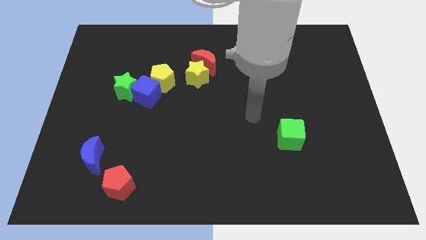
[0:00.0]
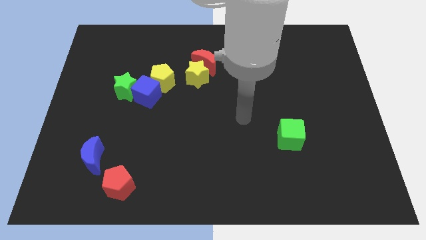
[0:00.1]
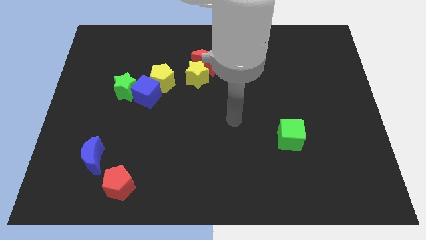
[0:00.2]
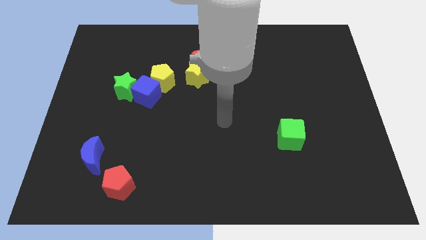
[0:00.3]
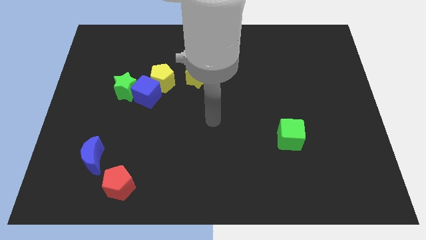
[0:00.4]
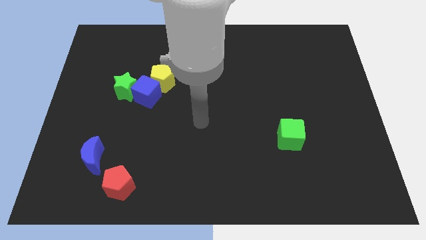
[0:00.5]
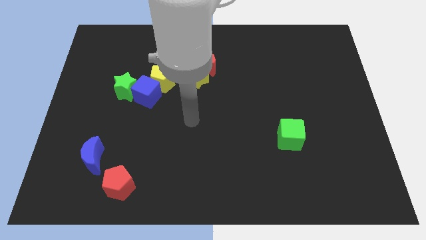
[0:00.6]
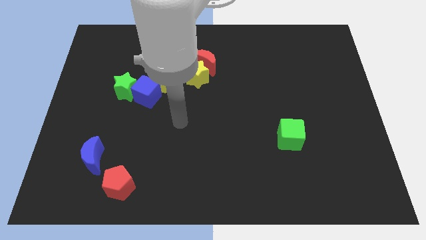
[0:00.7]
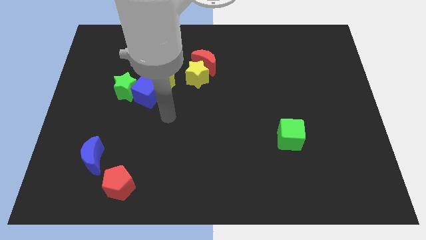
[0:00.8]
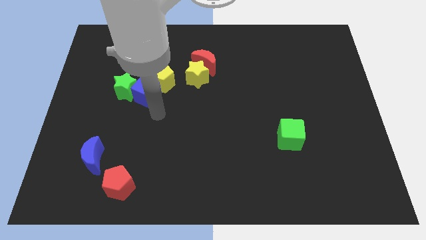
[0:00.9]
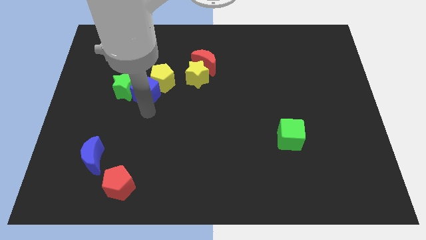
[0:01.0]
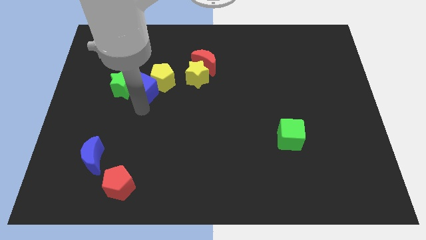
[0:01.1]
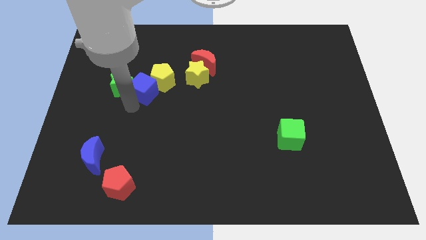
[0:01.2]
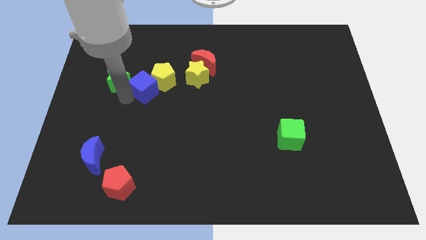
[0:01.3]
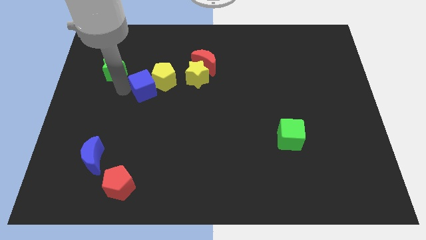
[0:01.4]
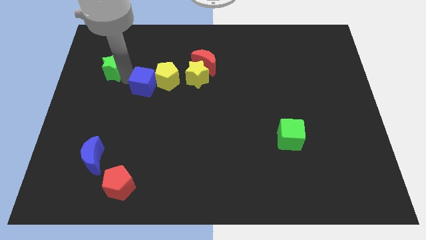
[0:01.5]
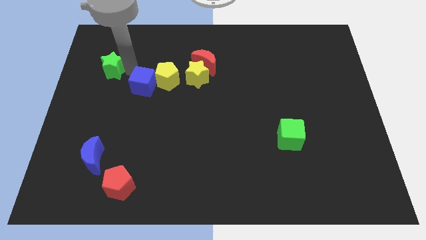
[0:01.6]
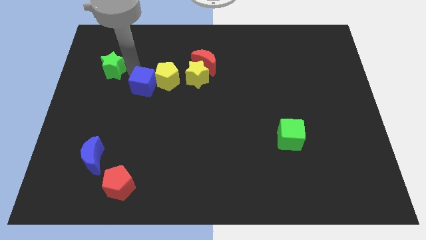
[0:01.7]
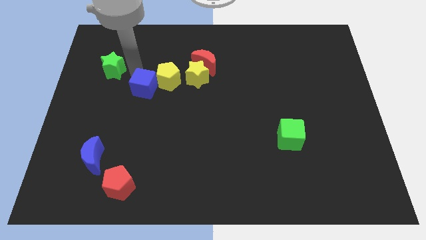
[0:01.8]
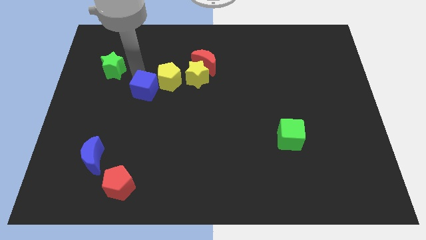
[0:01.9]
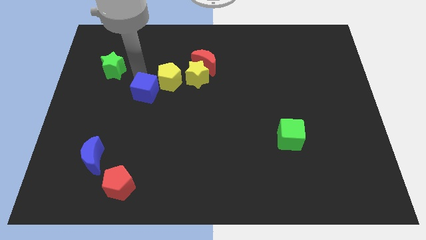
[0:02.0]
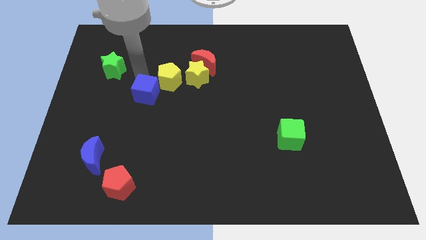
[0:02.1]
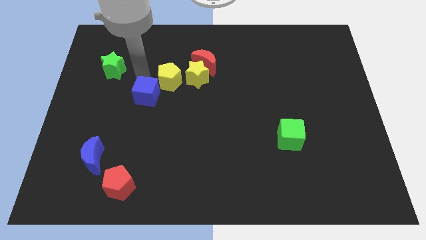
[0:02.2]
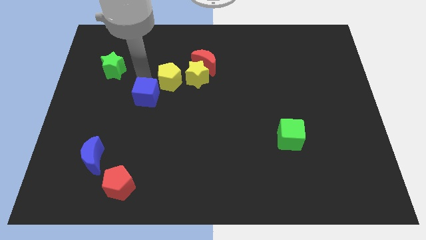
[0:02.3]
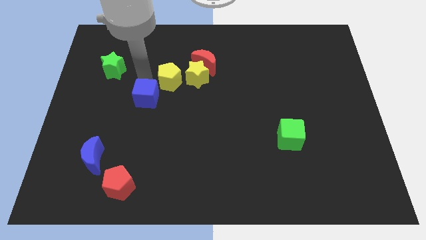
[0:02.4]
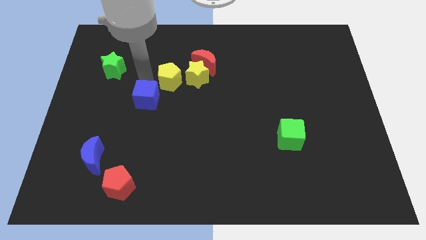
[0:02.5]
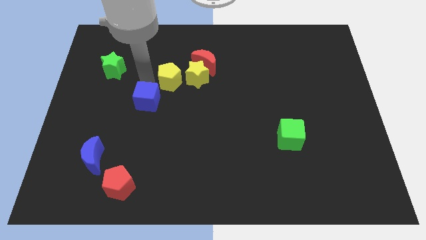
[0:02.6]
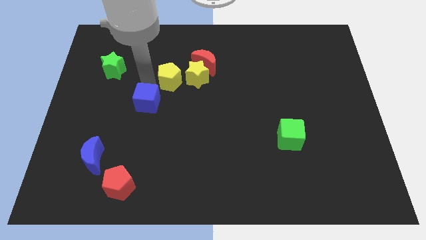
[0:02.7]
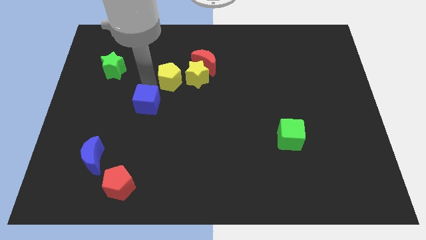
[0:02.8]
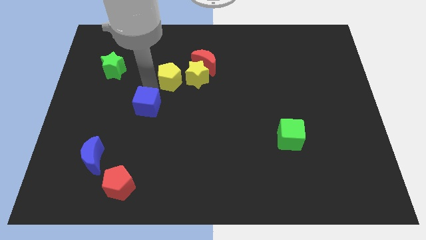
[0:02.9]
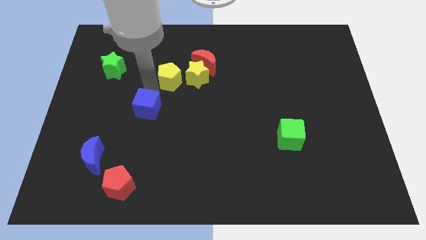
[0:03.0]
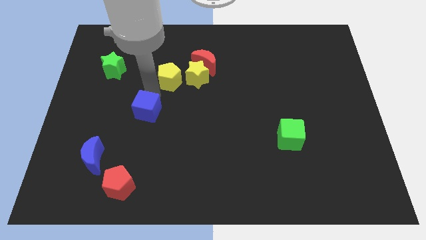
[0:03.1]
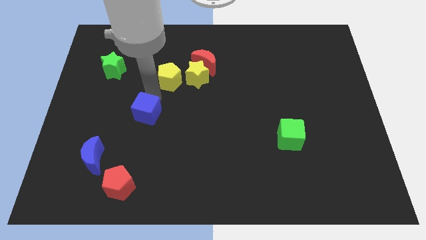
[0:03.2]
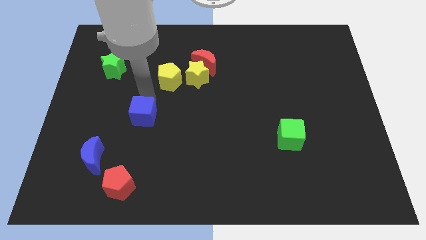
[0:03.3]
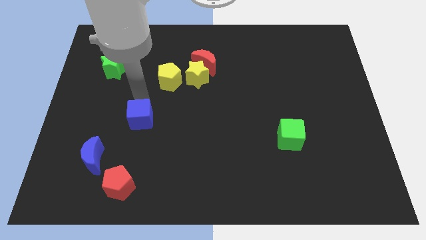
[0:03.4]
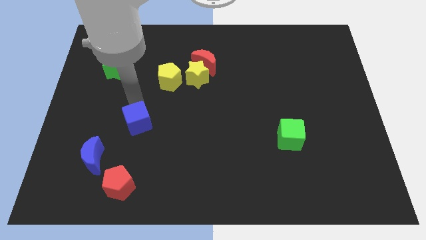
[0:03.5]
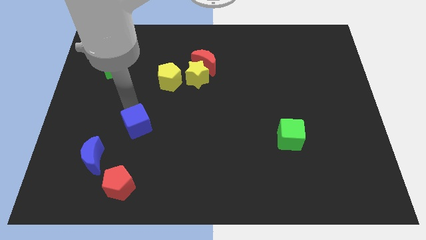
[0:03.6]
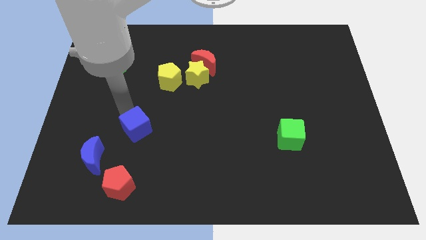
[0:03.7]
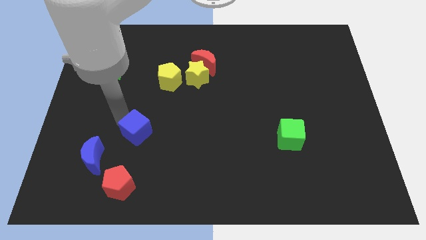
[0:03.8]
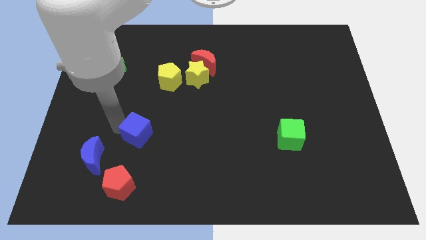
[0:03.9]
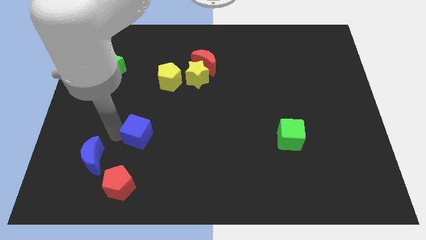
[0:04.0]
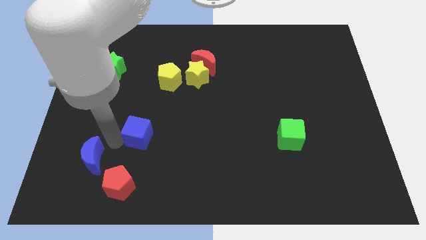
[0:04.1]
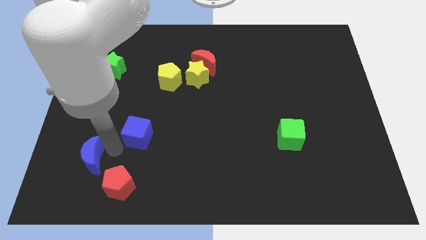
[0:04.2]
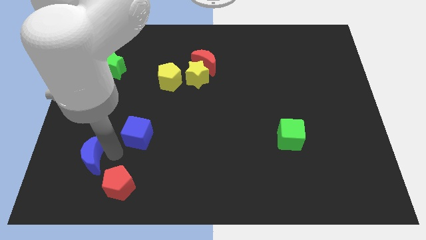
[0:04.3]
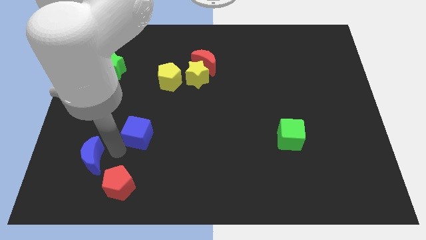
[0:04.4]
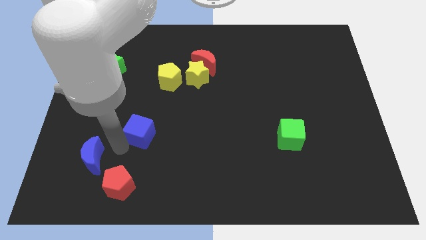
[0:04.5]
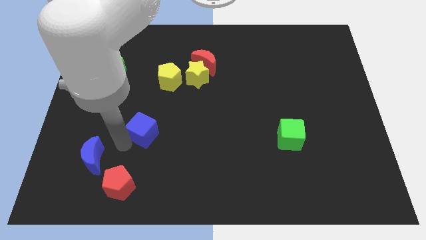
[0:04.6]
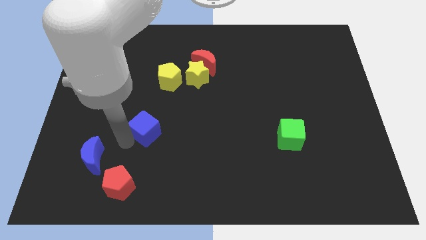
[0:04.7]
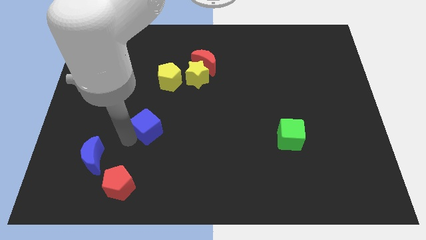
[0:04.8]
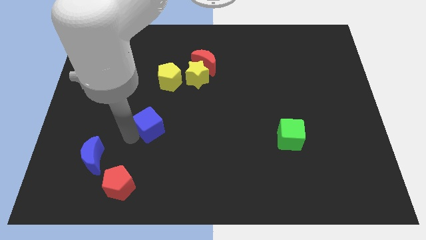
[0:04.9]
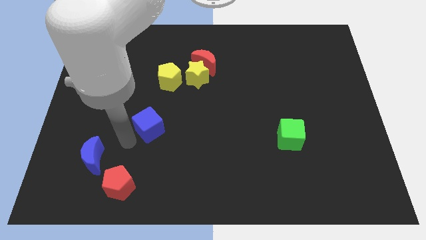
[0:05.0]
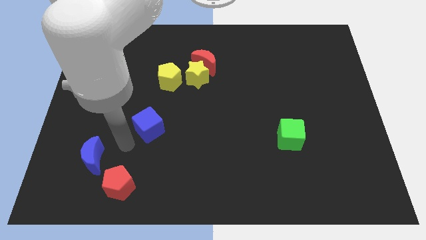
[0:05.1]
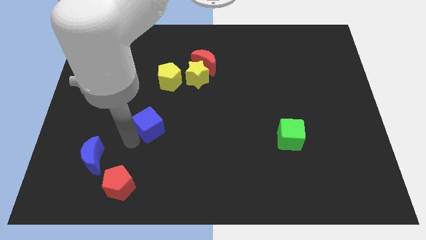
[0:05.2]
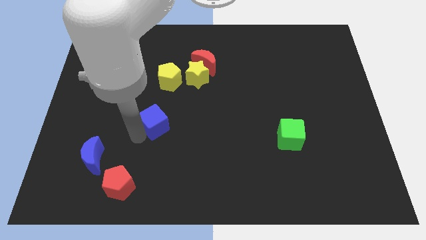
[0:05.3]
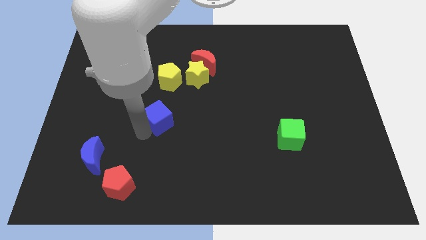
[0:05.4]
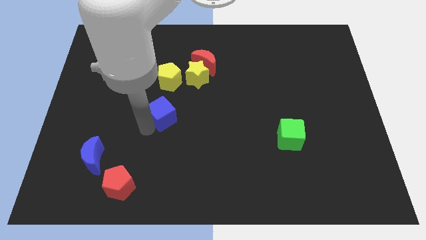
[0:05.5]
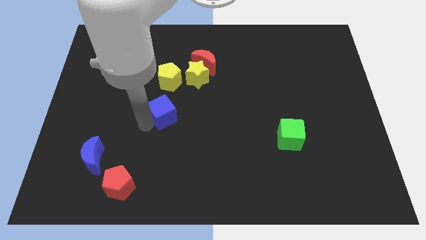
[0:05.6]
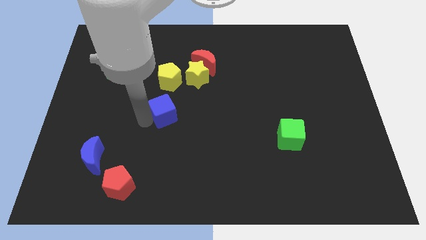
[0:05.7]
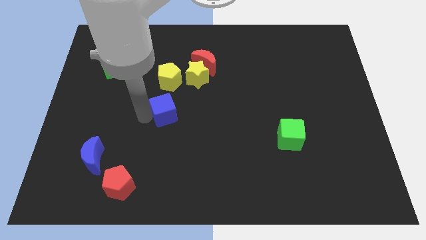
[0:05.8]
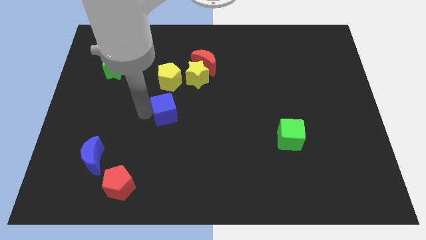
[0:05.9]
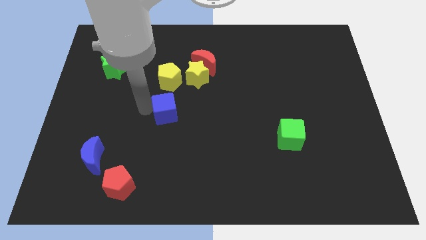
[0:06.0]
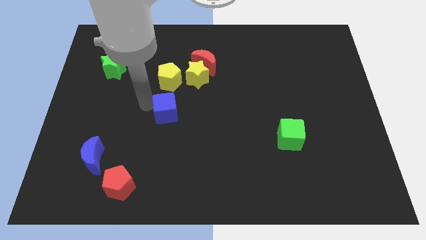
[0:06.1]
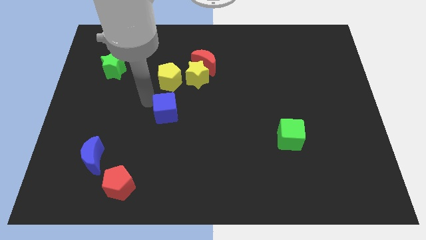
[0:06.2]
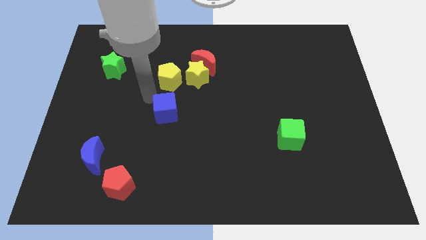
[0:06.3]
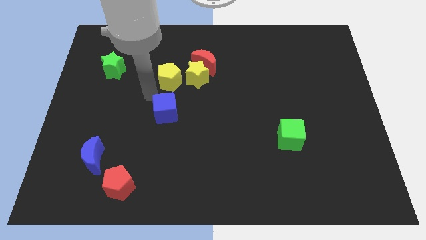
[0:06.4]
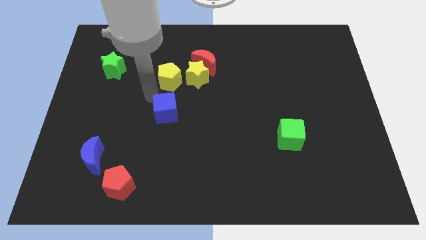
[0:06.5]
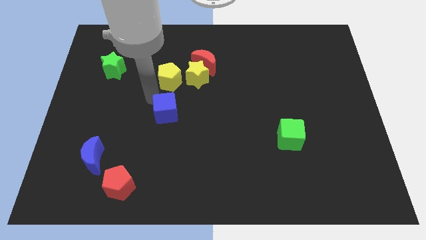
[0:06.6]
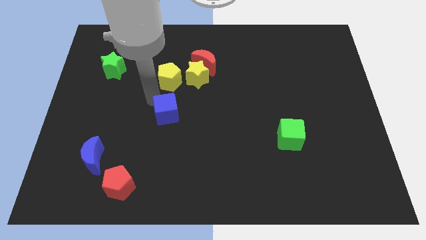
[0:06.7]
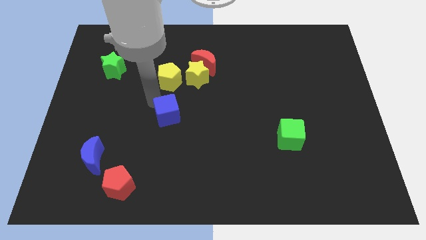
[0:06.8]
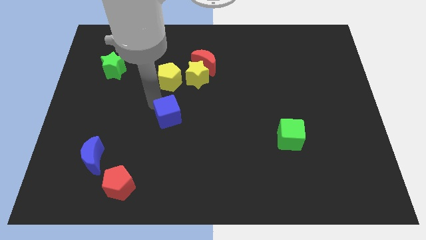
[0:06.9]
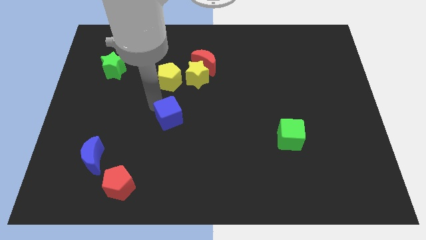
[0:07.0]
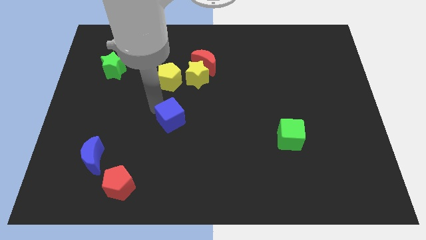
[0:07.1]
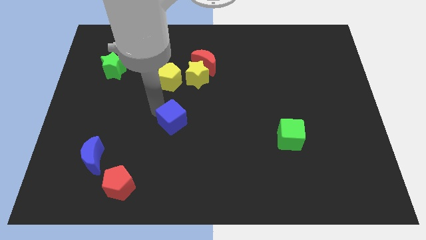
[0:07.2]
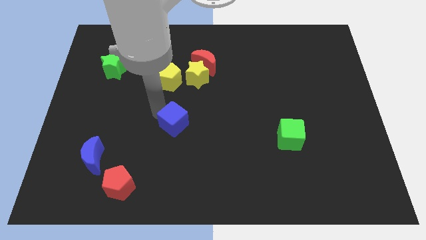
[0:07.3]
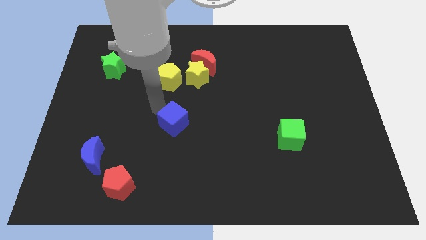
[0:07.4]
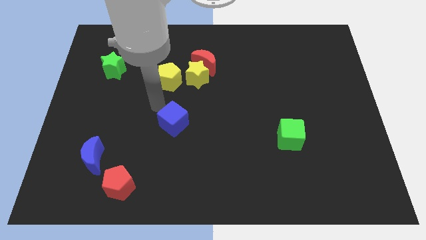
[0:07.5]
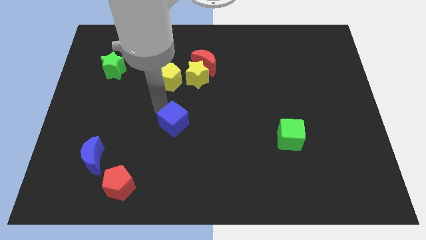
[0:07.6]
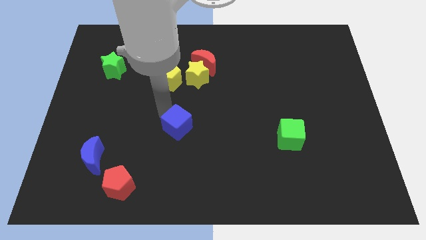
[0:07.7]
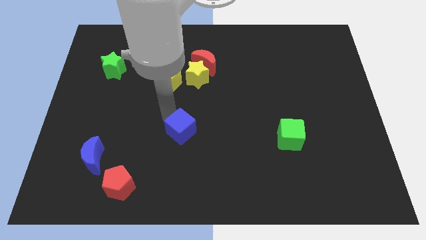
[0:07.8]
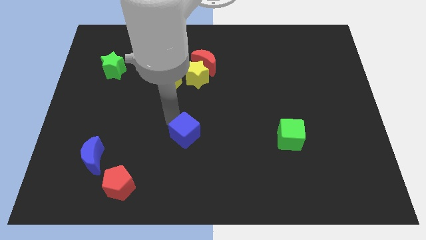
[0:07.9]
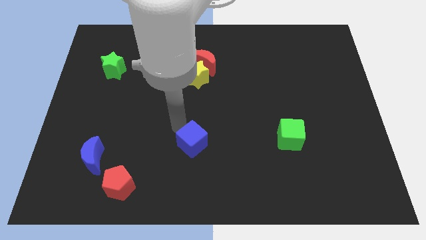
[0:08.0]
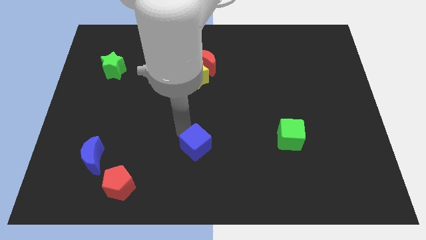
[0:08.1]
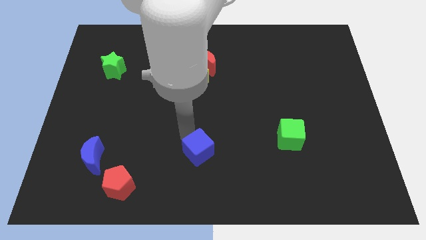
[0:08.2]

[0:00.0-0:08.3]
push the blue cube downwards and then to the right
